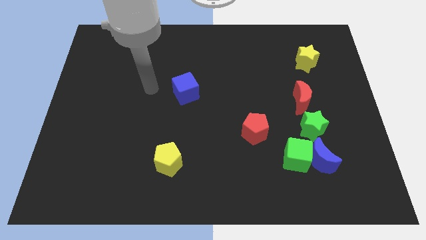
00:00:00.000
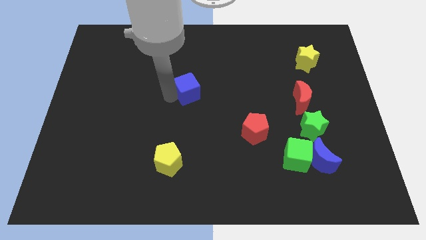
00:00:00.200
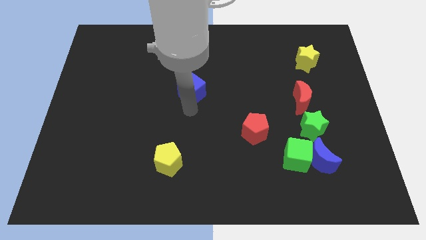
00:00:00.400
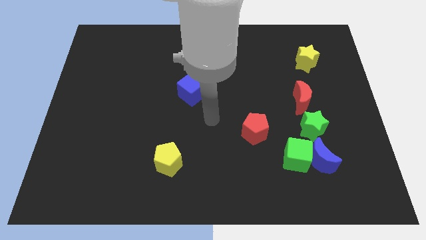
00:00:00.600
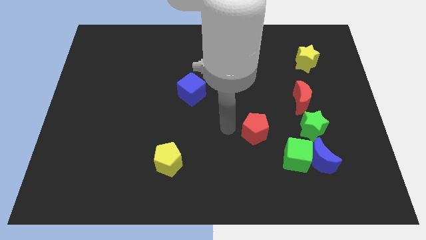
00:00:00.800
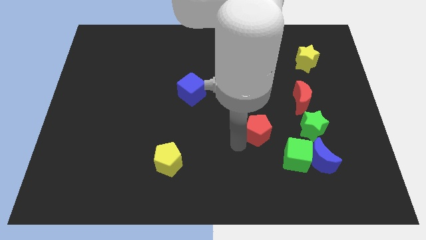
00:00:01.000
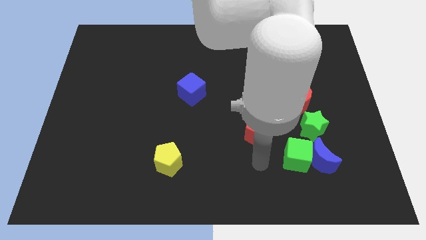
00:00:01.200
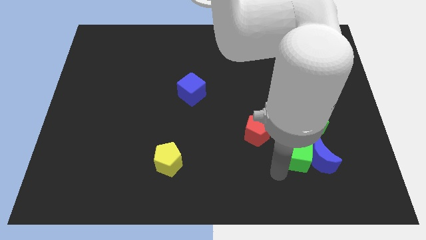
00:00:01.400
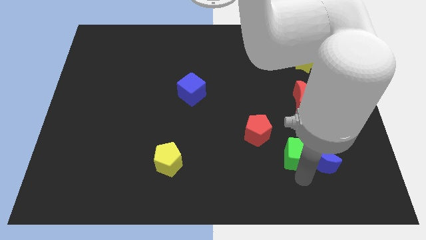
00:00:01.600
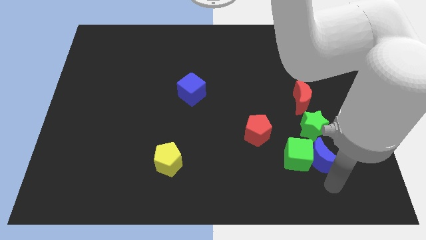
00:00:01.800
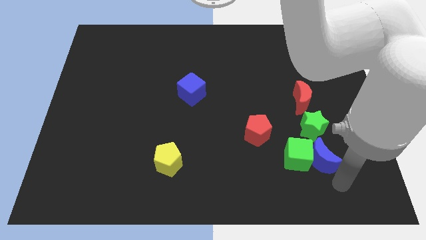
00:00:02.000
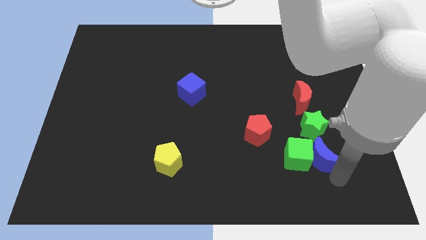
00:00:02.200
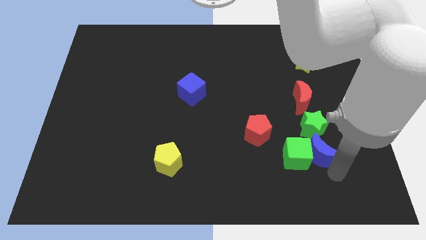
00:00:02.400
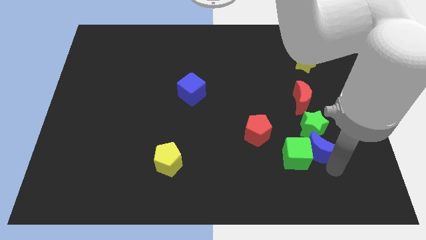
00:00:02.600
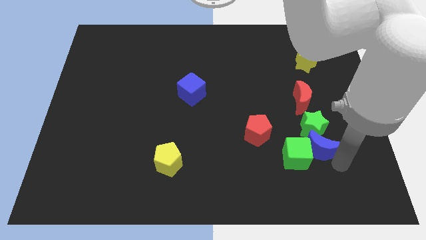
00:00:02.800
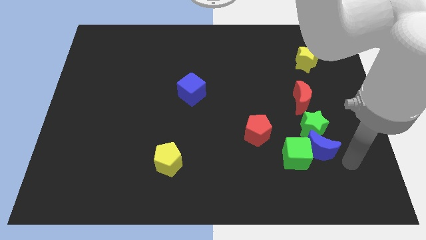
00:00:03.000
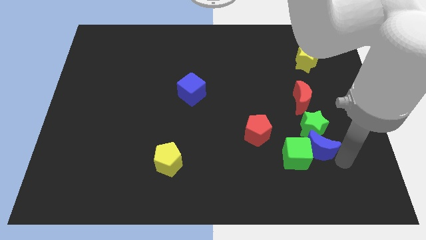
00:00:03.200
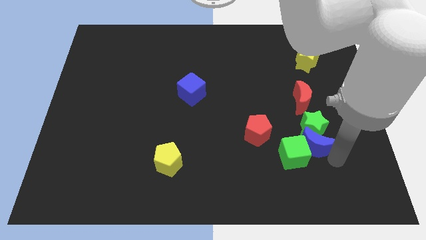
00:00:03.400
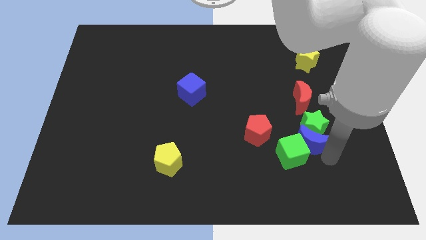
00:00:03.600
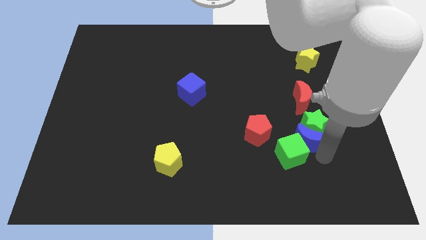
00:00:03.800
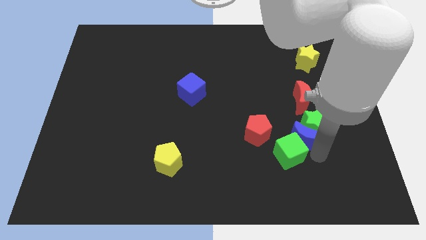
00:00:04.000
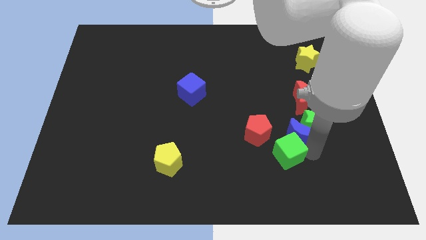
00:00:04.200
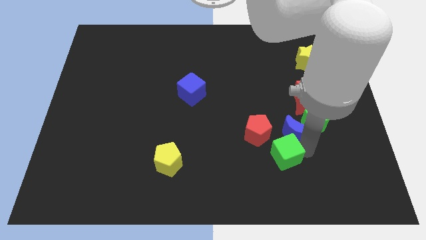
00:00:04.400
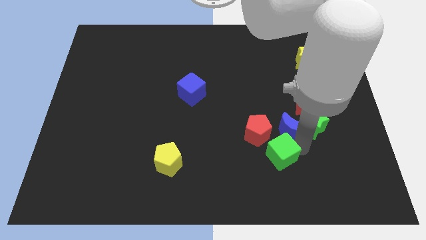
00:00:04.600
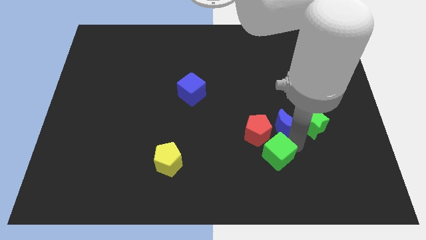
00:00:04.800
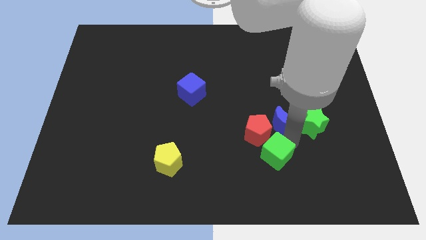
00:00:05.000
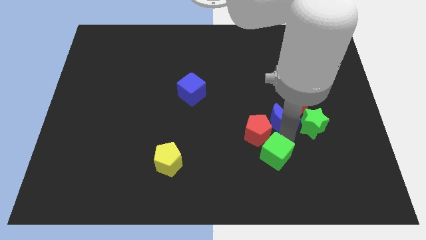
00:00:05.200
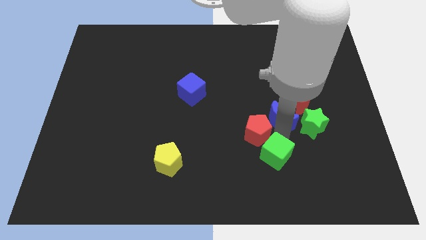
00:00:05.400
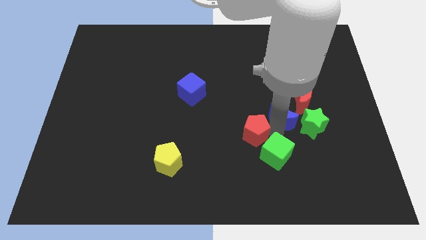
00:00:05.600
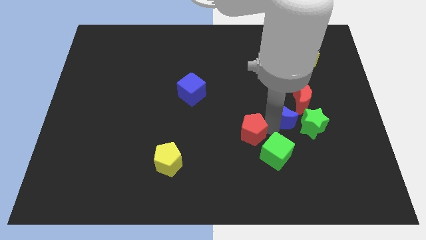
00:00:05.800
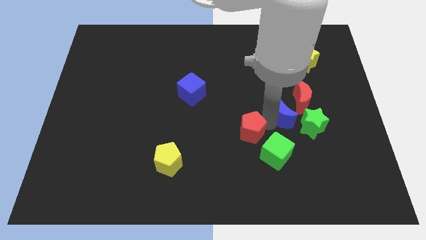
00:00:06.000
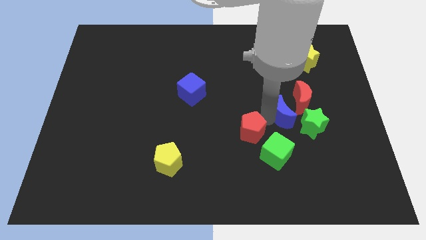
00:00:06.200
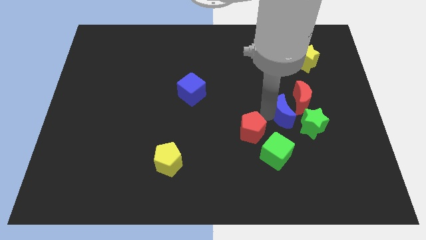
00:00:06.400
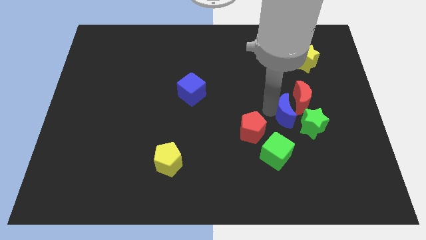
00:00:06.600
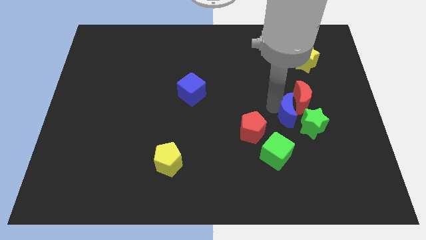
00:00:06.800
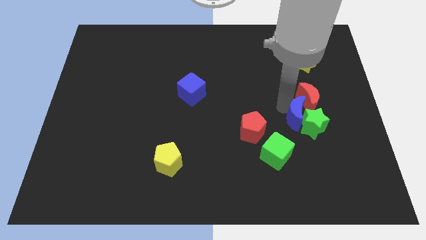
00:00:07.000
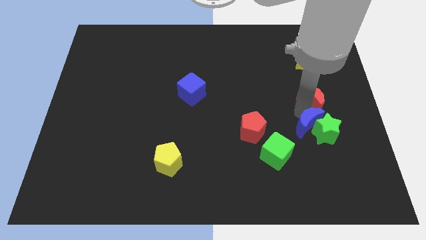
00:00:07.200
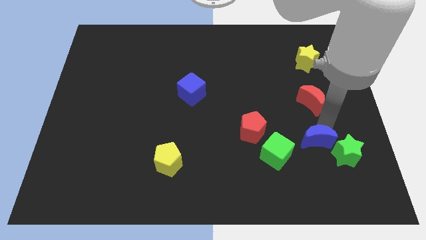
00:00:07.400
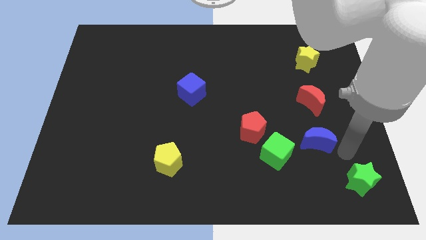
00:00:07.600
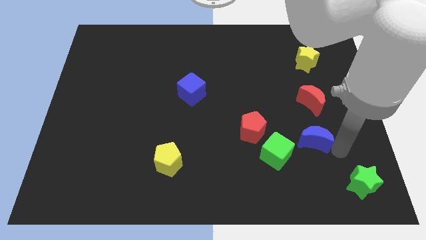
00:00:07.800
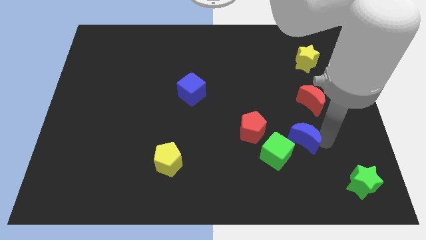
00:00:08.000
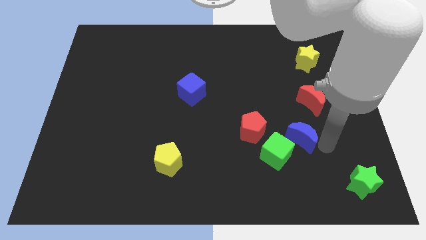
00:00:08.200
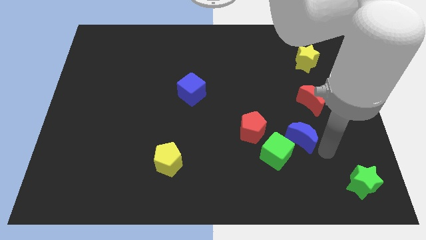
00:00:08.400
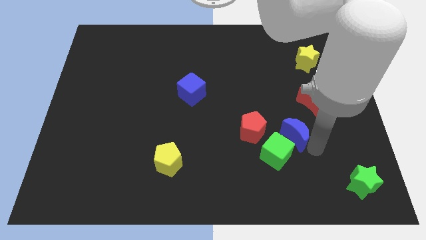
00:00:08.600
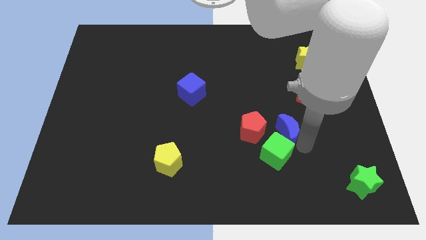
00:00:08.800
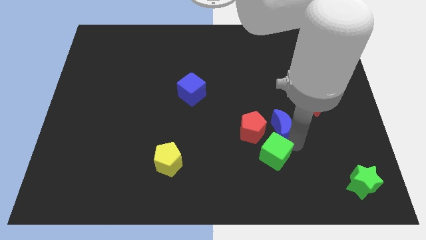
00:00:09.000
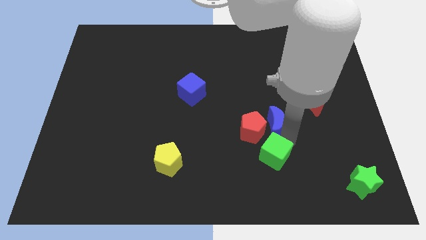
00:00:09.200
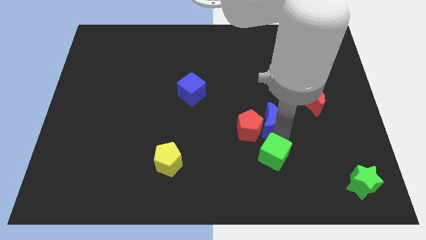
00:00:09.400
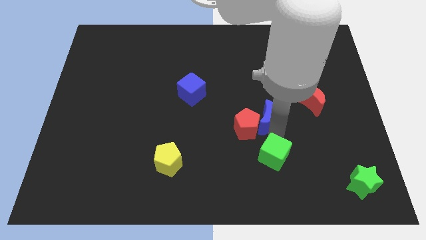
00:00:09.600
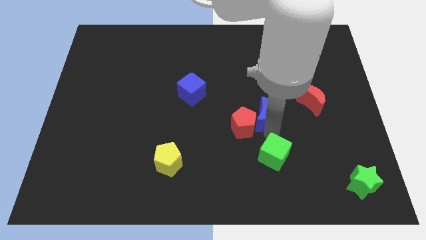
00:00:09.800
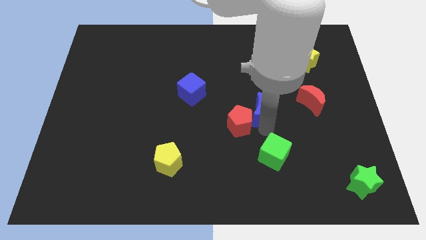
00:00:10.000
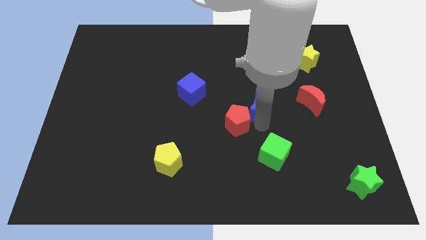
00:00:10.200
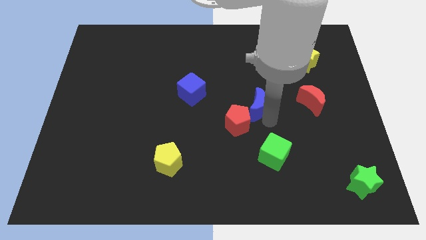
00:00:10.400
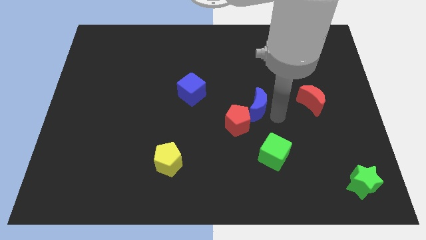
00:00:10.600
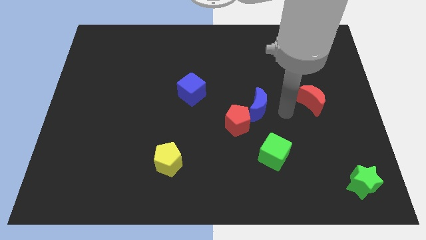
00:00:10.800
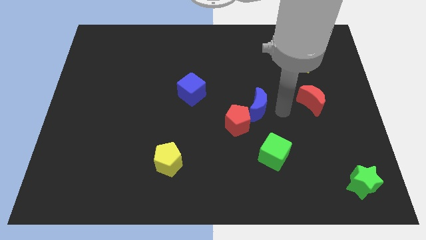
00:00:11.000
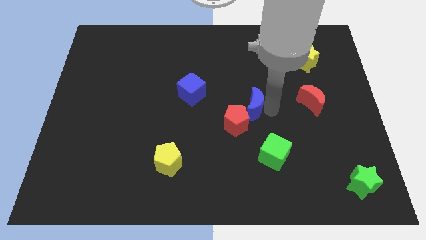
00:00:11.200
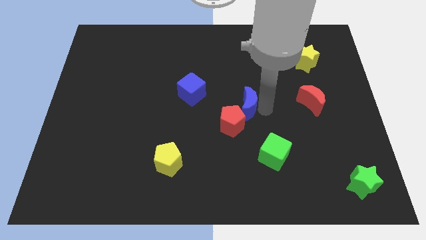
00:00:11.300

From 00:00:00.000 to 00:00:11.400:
slide the blue moon diagonally up and left

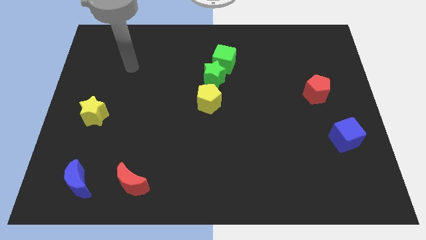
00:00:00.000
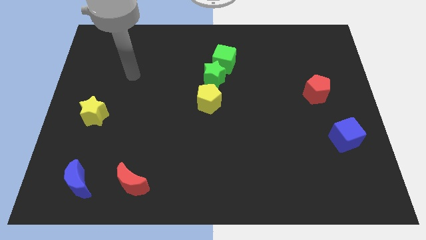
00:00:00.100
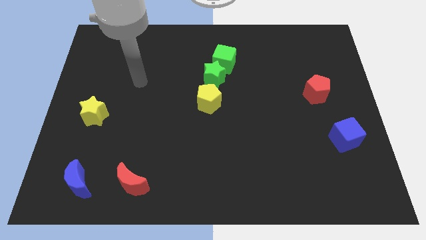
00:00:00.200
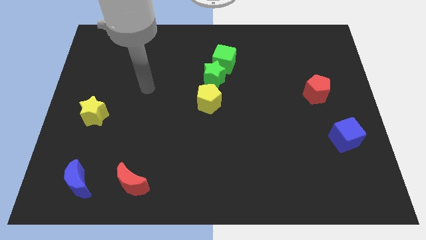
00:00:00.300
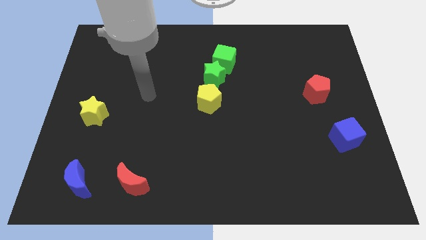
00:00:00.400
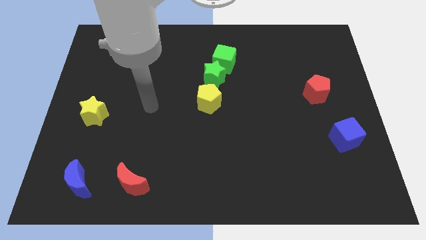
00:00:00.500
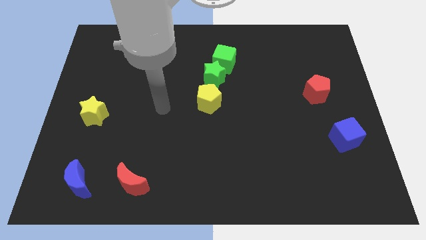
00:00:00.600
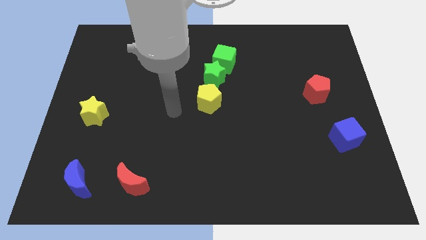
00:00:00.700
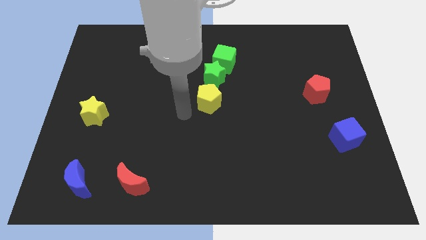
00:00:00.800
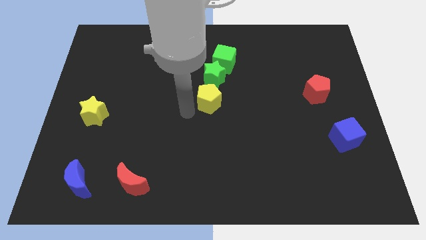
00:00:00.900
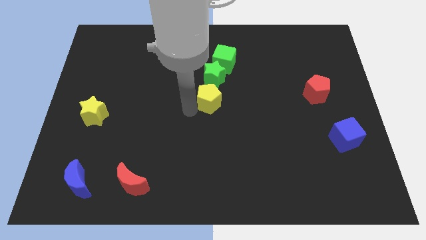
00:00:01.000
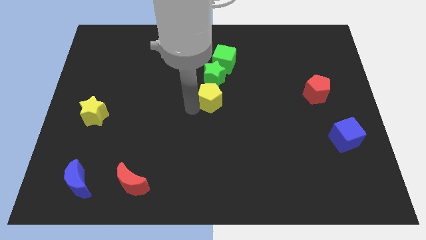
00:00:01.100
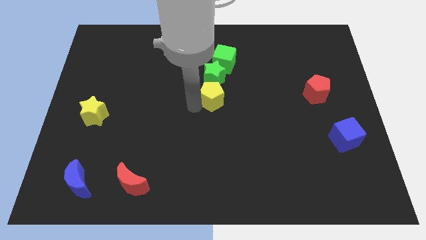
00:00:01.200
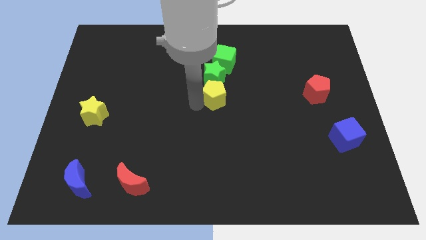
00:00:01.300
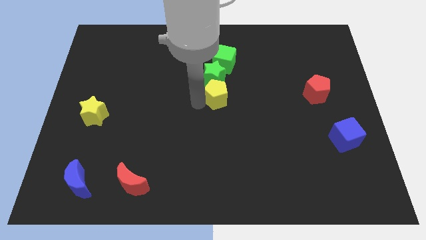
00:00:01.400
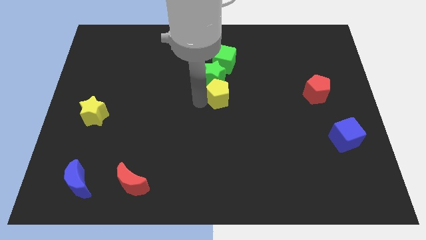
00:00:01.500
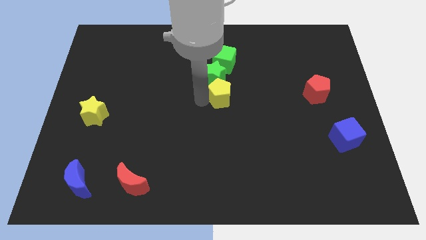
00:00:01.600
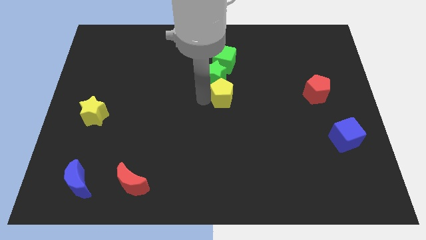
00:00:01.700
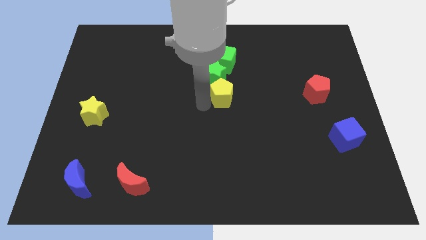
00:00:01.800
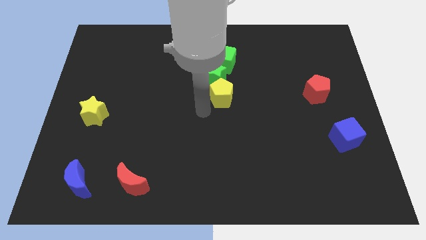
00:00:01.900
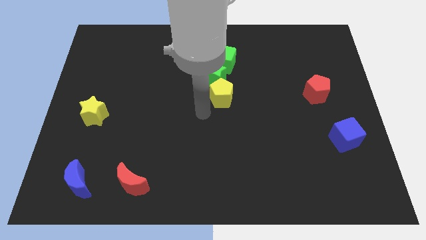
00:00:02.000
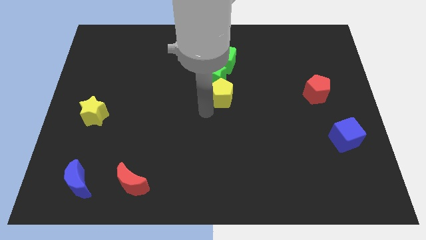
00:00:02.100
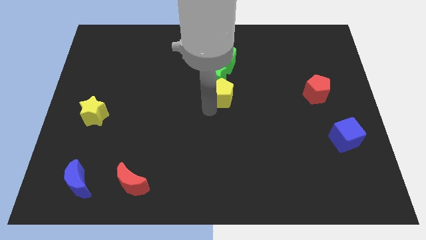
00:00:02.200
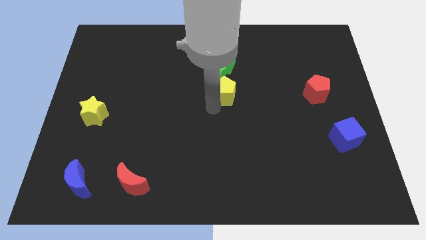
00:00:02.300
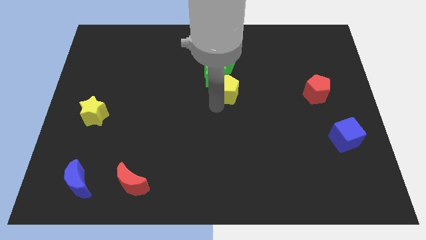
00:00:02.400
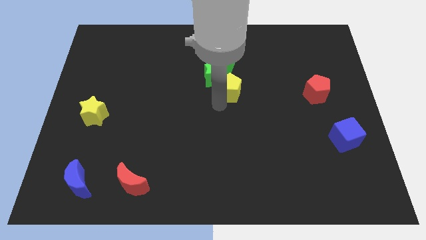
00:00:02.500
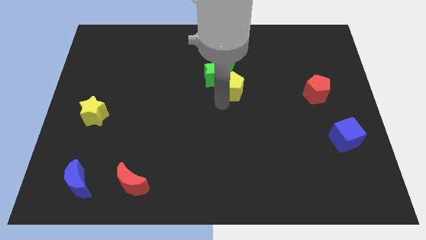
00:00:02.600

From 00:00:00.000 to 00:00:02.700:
push the yellow pentagon diagonally upwards and right a little
